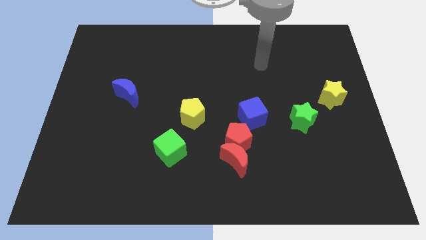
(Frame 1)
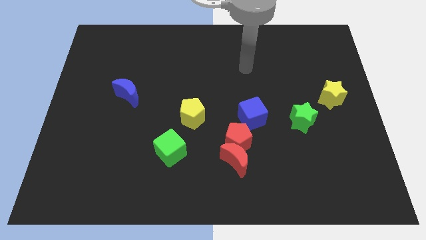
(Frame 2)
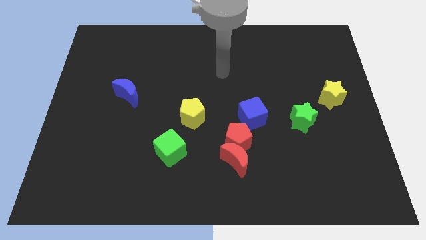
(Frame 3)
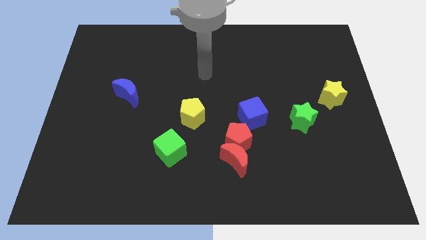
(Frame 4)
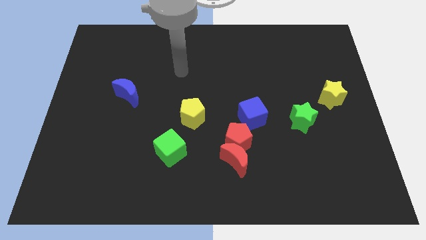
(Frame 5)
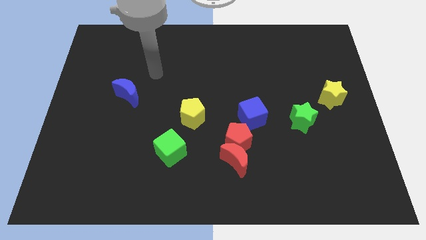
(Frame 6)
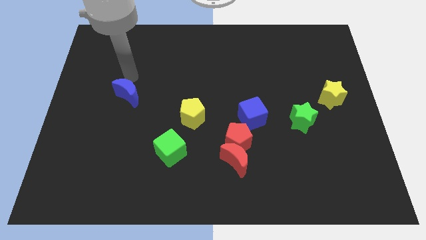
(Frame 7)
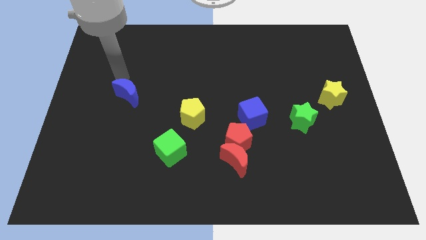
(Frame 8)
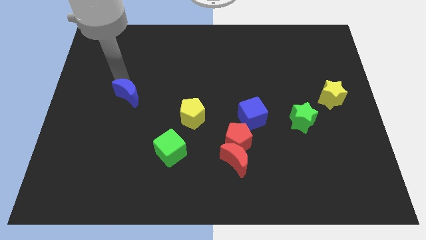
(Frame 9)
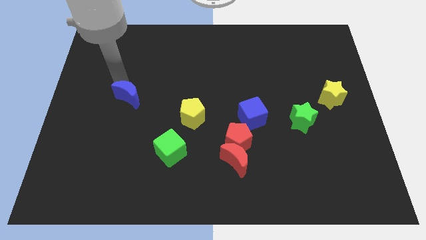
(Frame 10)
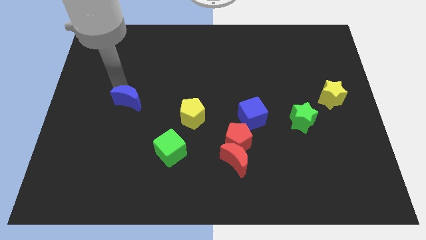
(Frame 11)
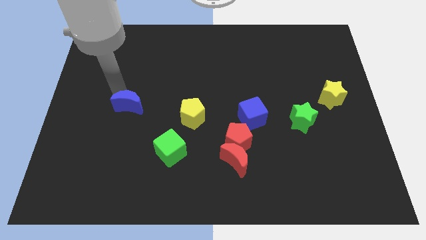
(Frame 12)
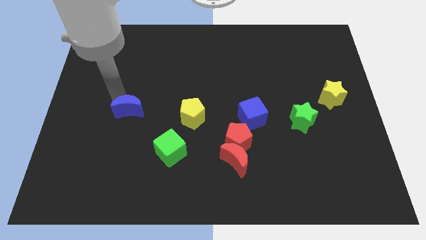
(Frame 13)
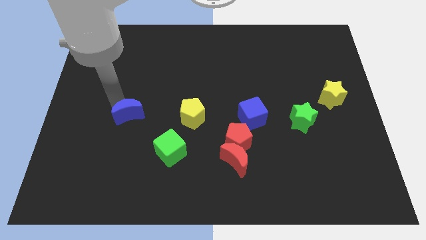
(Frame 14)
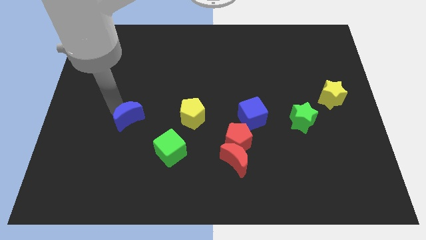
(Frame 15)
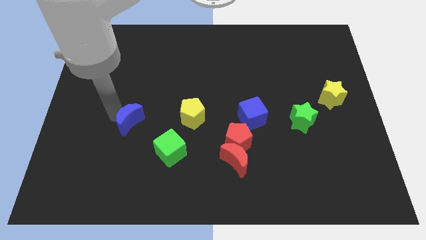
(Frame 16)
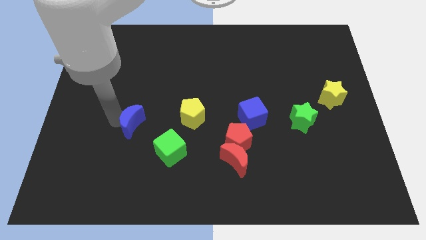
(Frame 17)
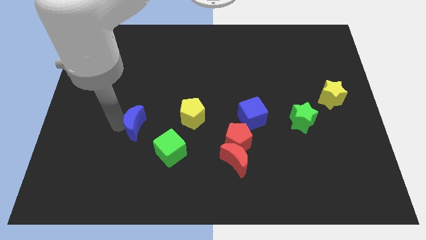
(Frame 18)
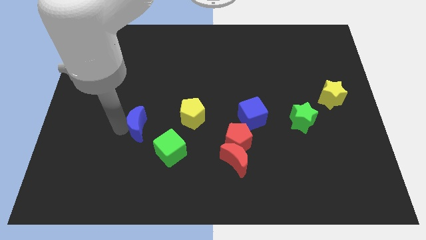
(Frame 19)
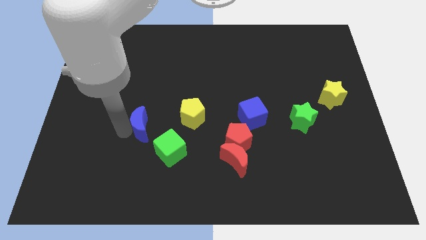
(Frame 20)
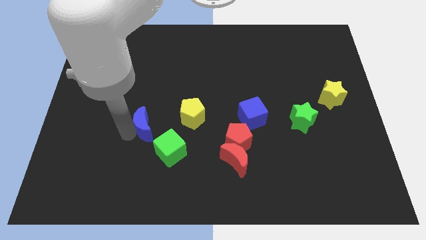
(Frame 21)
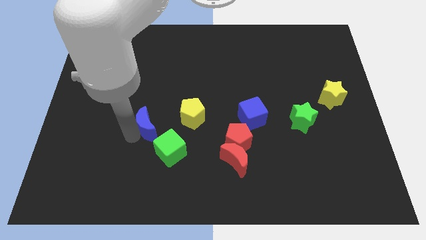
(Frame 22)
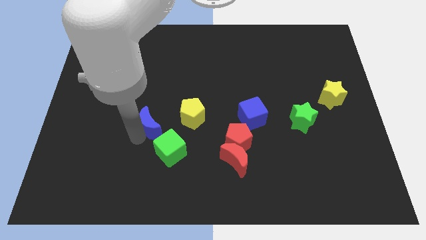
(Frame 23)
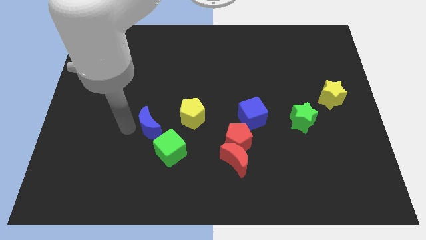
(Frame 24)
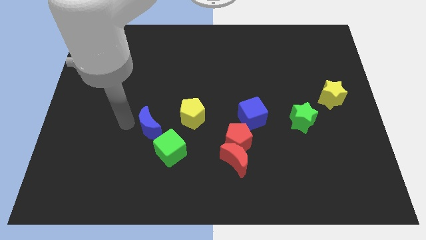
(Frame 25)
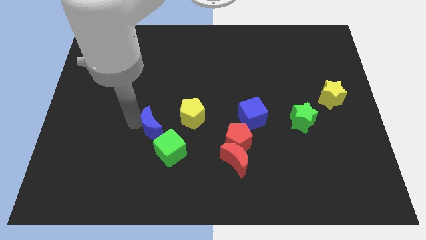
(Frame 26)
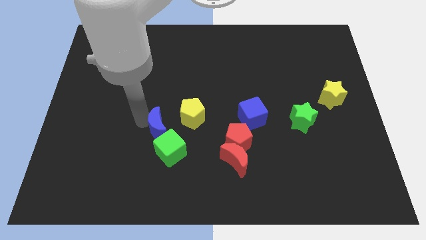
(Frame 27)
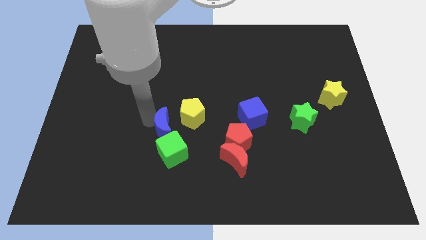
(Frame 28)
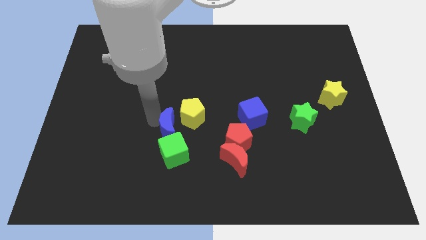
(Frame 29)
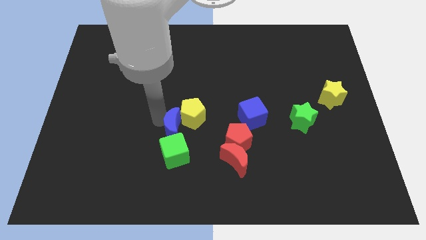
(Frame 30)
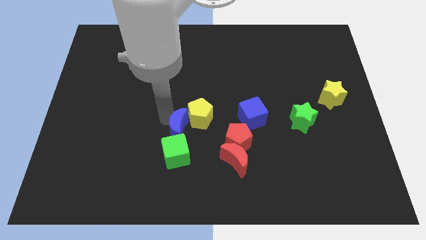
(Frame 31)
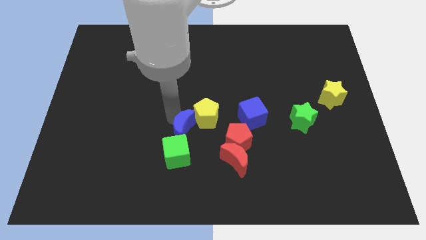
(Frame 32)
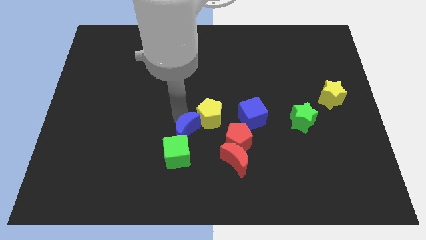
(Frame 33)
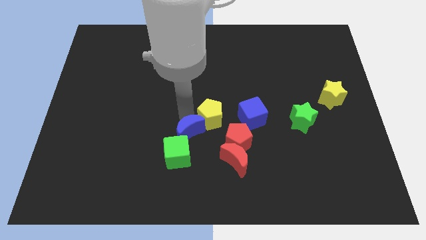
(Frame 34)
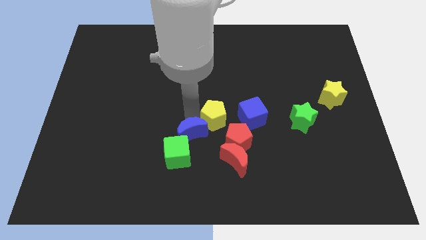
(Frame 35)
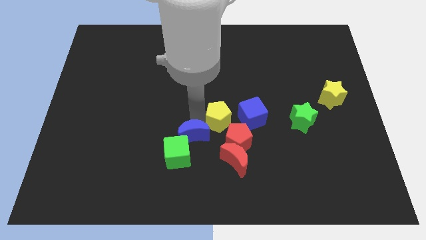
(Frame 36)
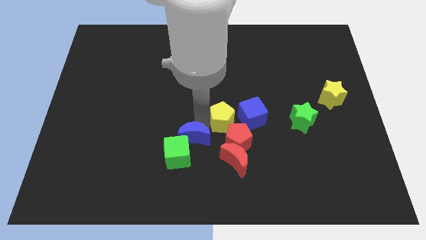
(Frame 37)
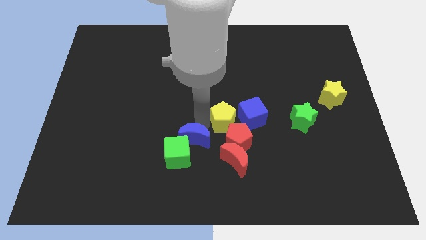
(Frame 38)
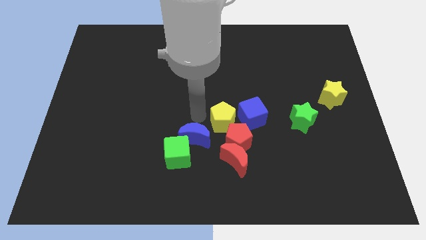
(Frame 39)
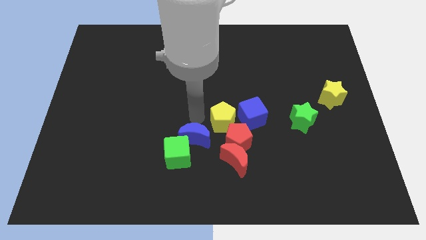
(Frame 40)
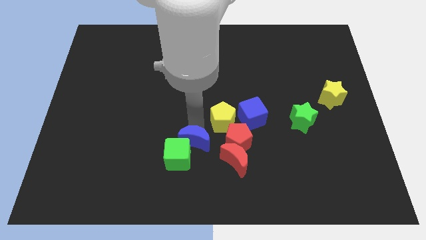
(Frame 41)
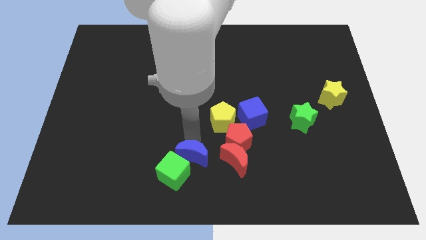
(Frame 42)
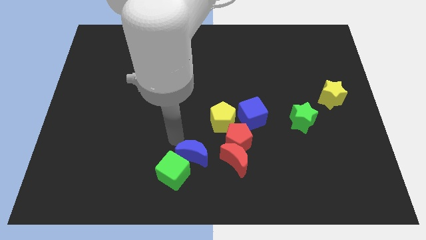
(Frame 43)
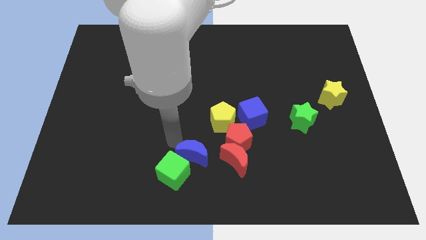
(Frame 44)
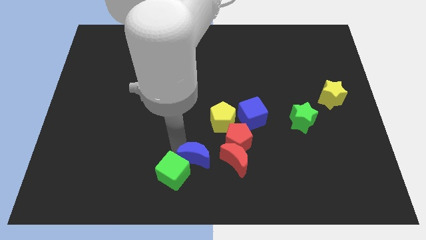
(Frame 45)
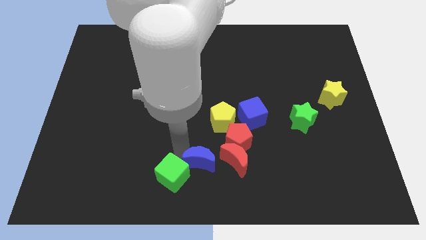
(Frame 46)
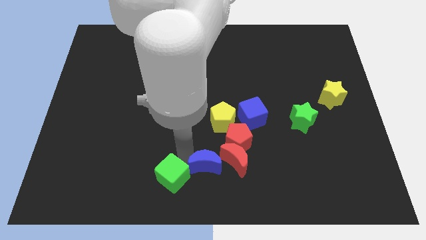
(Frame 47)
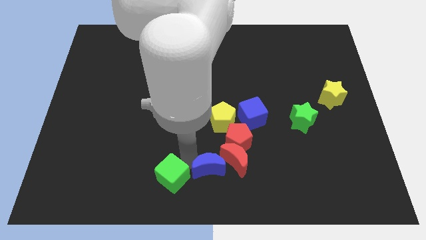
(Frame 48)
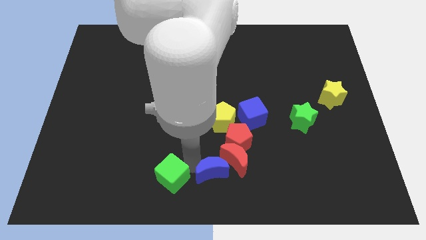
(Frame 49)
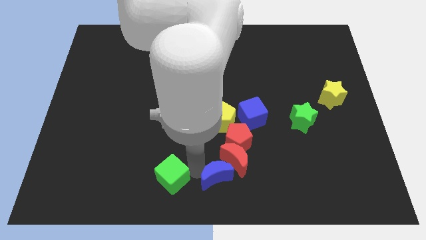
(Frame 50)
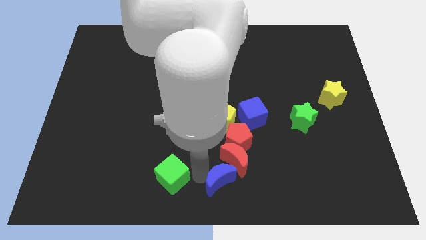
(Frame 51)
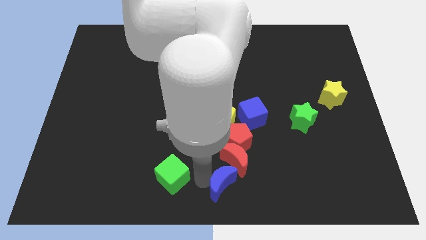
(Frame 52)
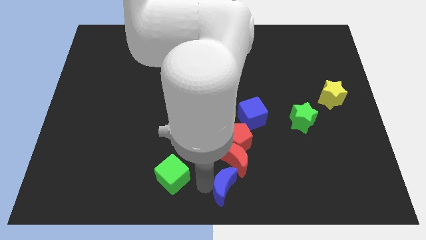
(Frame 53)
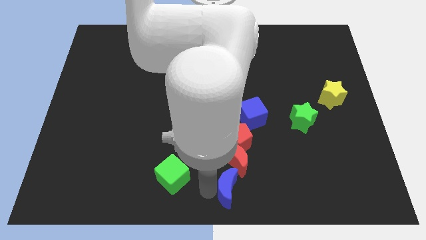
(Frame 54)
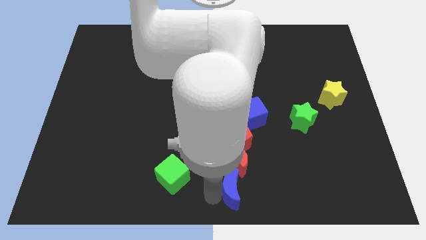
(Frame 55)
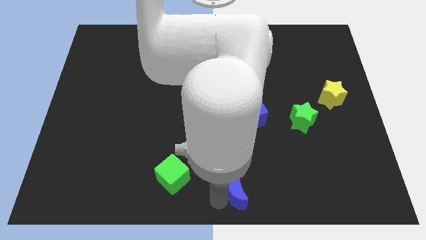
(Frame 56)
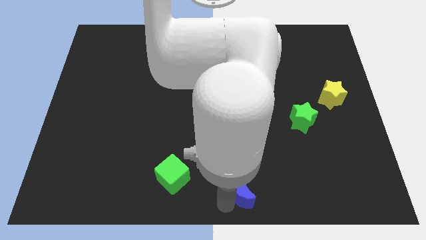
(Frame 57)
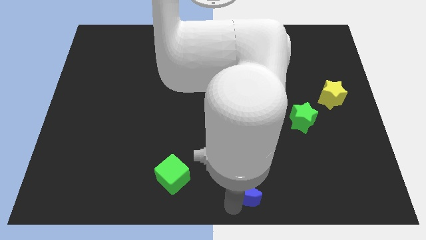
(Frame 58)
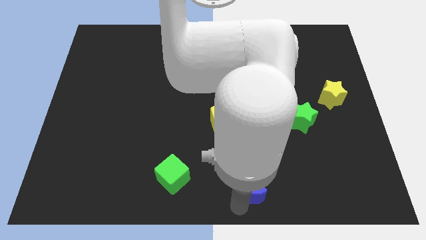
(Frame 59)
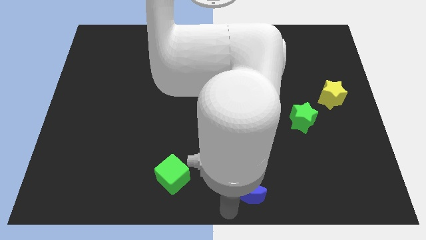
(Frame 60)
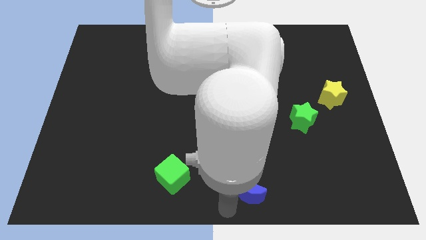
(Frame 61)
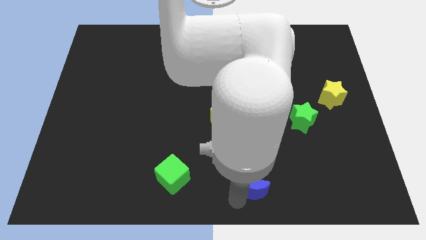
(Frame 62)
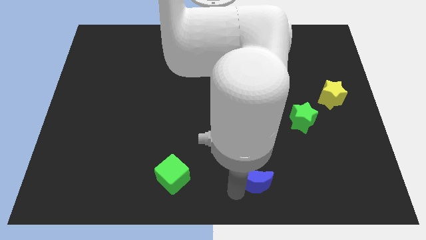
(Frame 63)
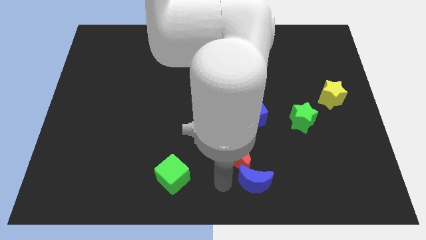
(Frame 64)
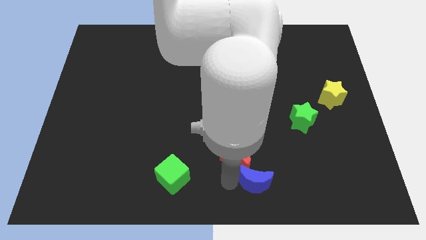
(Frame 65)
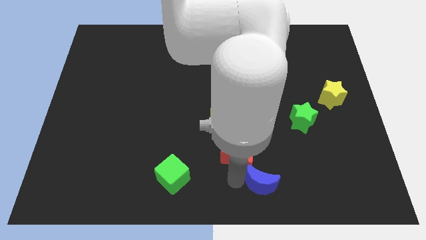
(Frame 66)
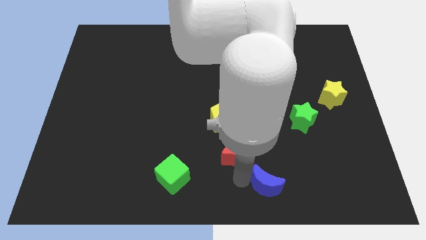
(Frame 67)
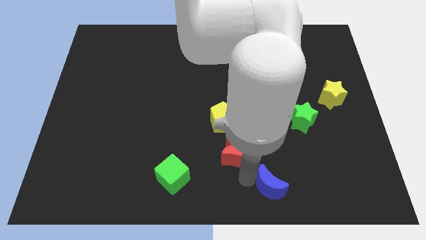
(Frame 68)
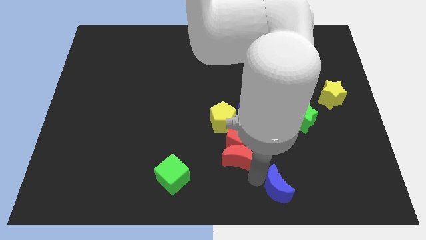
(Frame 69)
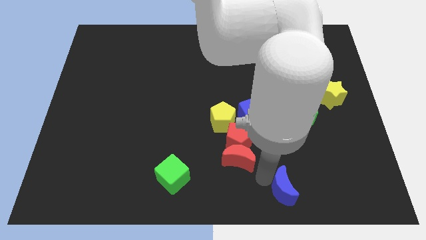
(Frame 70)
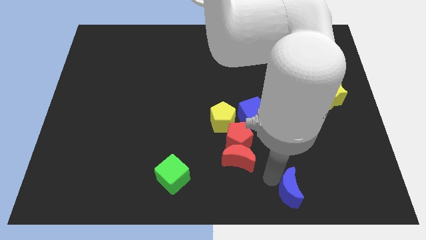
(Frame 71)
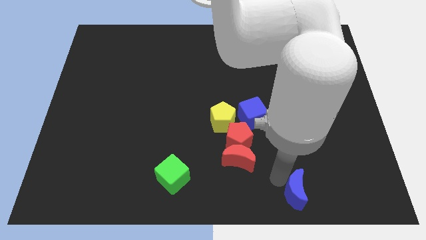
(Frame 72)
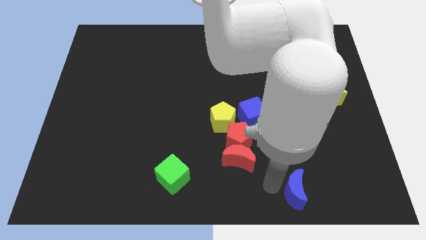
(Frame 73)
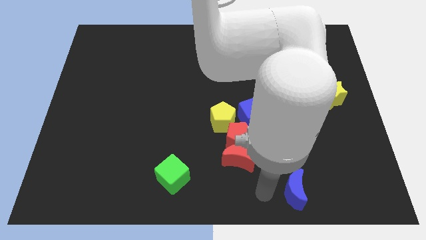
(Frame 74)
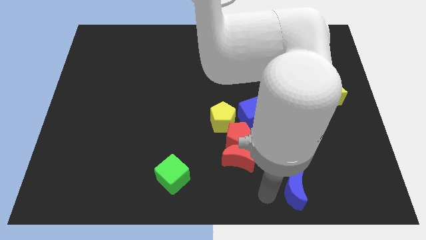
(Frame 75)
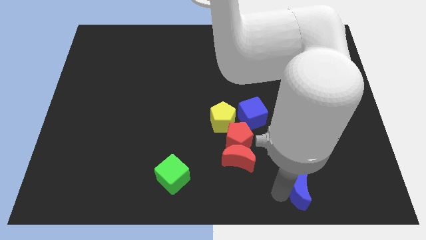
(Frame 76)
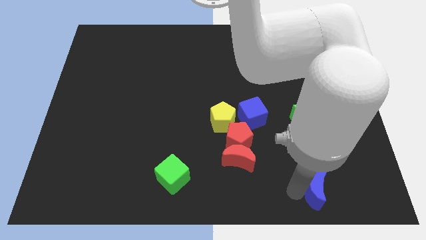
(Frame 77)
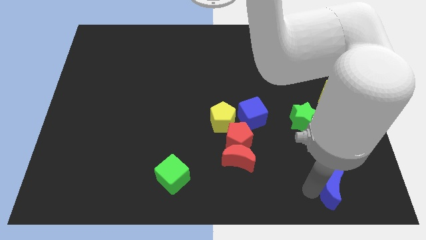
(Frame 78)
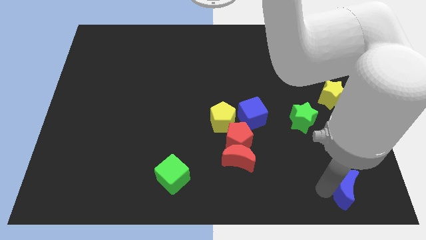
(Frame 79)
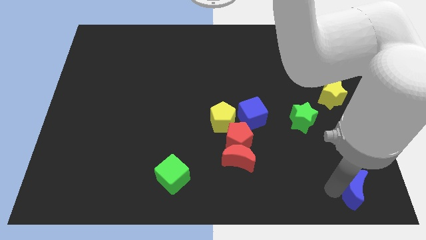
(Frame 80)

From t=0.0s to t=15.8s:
push the blue moon to the bottom right corner

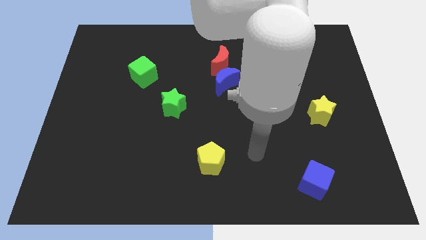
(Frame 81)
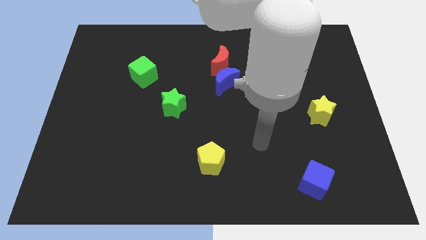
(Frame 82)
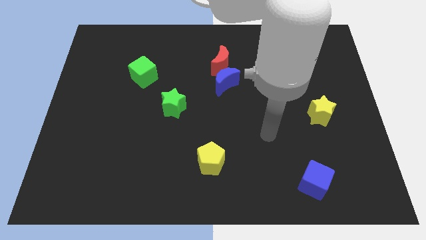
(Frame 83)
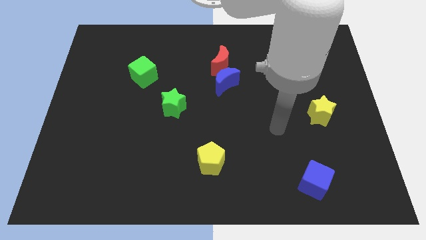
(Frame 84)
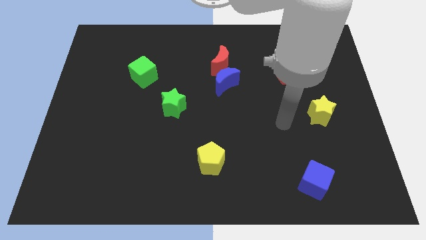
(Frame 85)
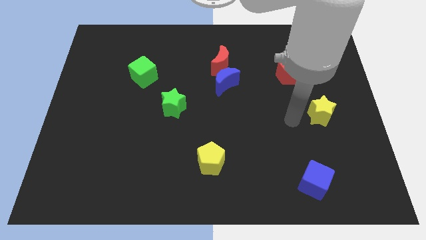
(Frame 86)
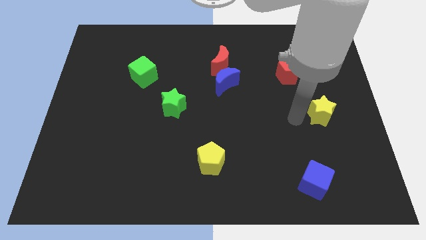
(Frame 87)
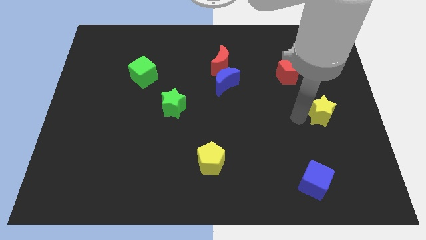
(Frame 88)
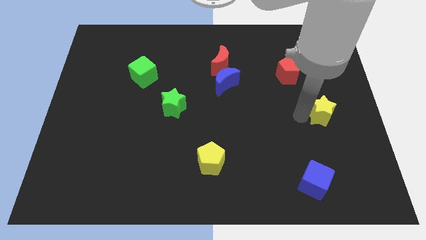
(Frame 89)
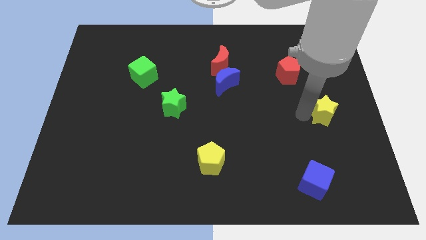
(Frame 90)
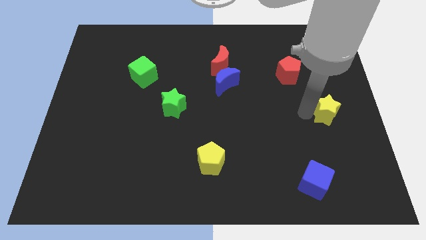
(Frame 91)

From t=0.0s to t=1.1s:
push the yellow star to the right side of the board
